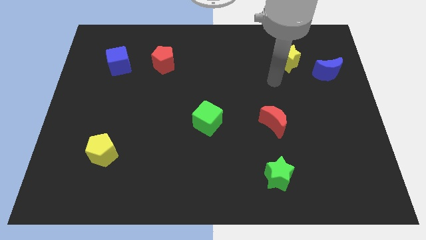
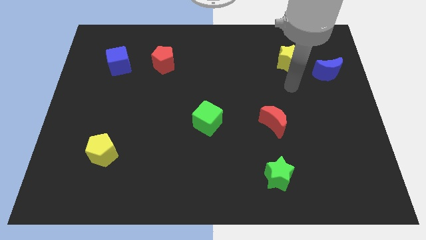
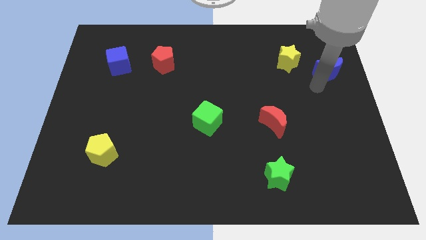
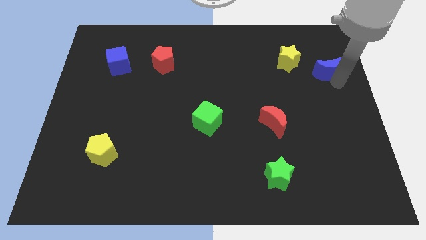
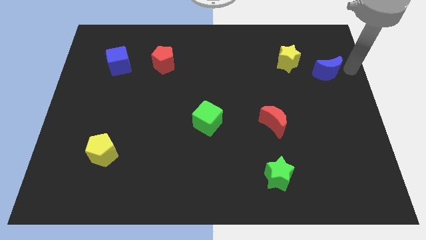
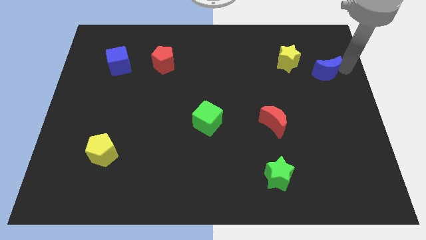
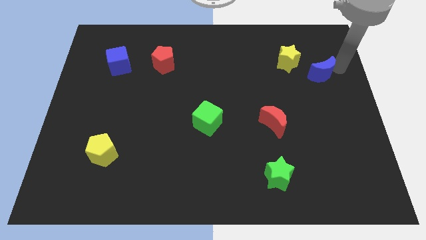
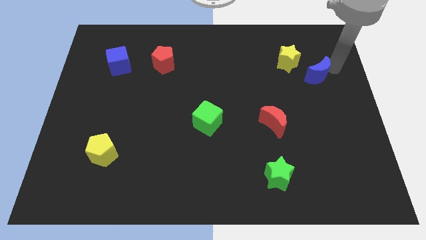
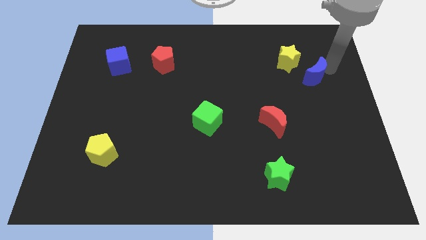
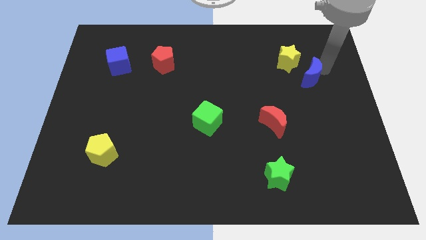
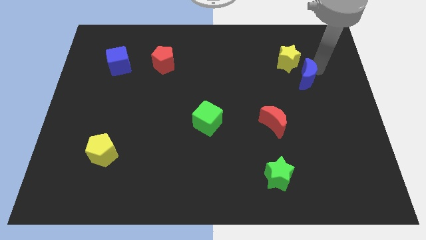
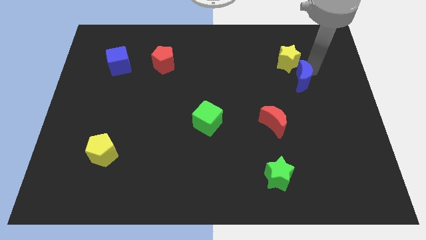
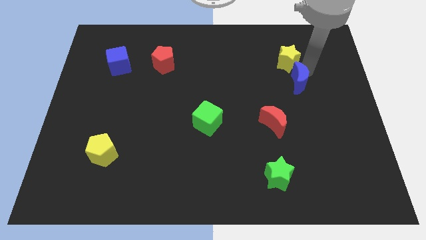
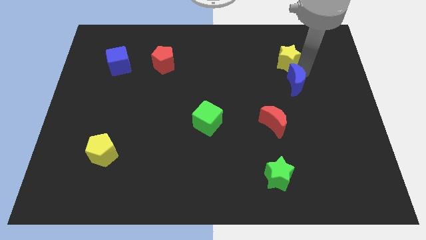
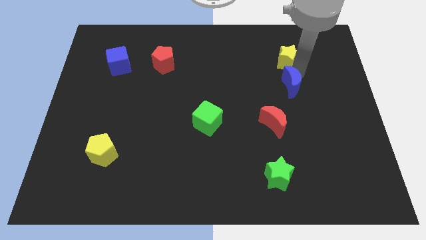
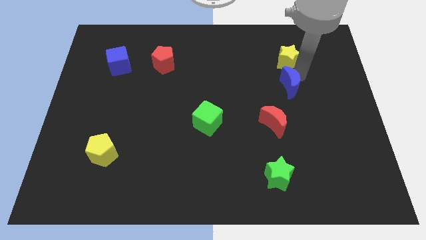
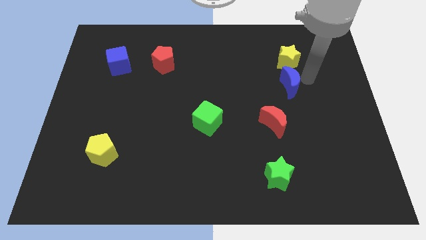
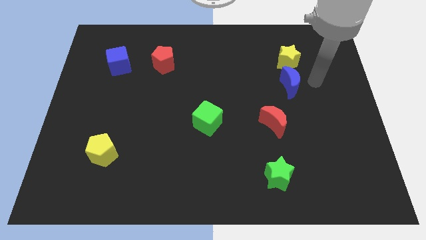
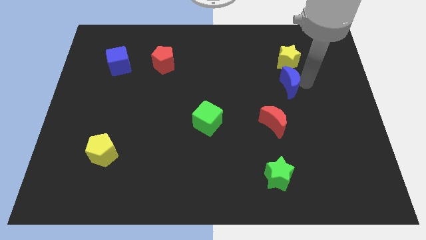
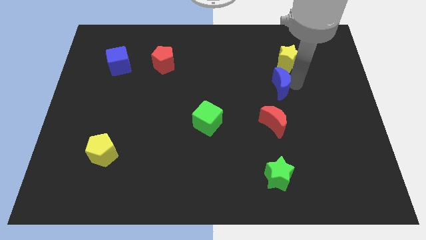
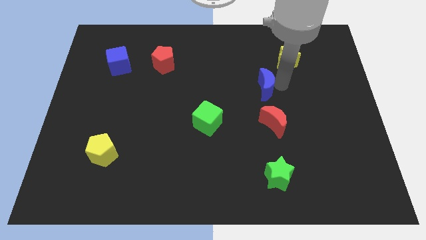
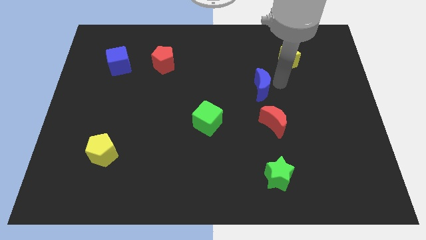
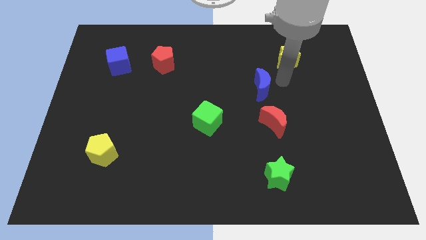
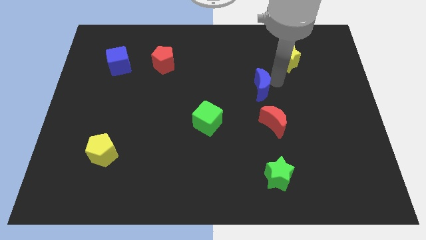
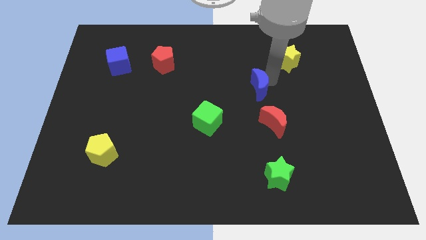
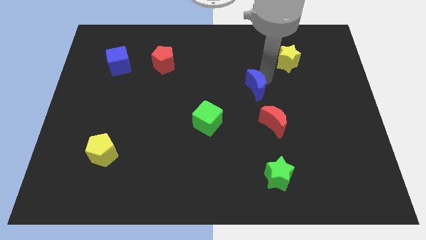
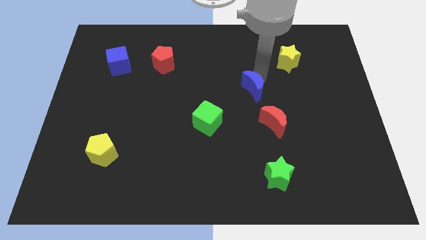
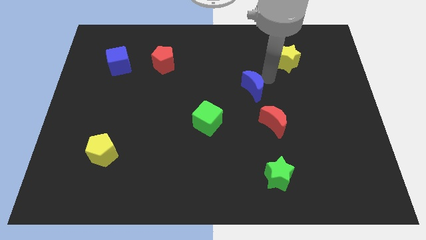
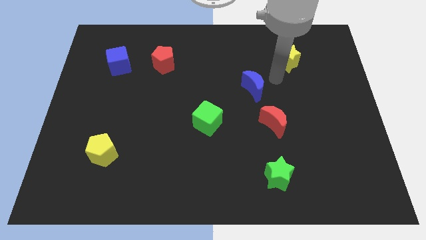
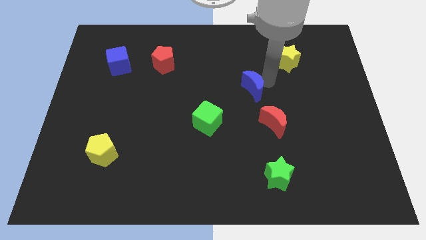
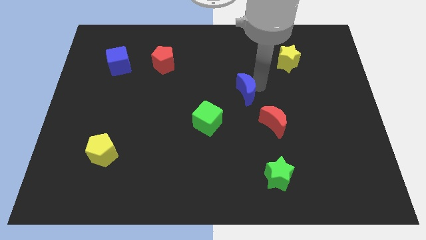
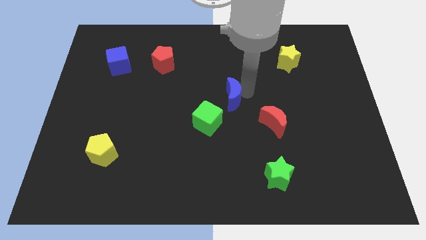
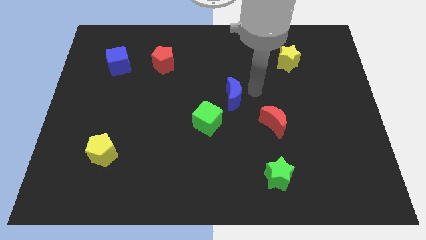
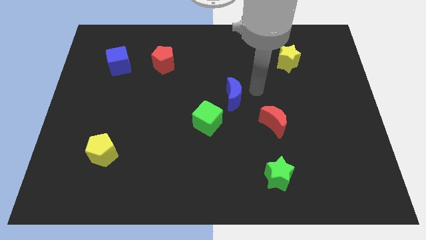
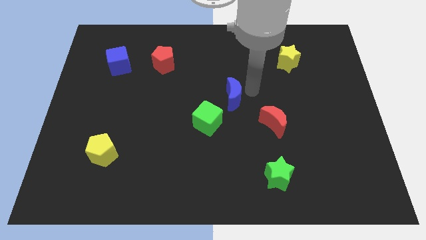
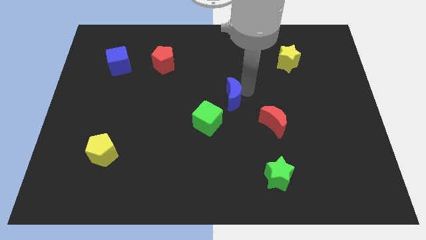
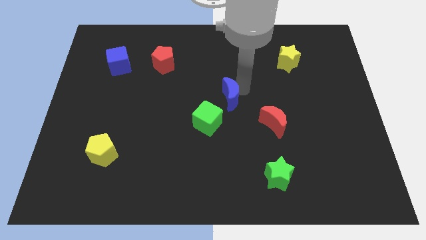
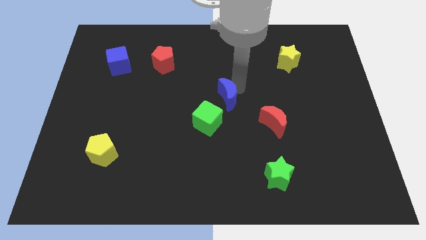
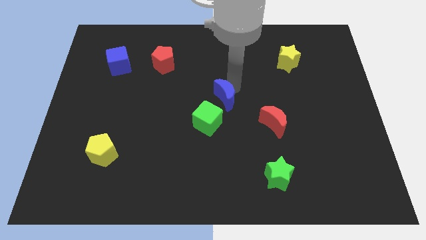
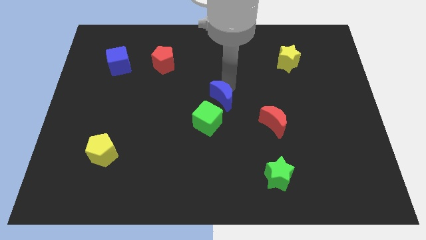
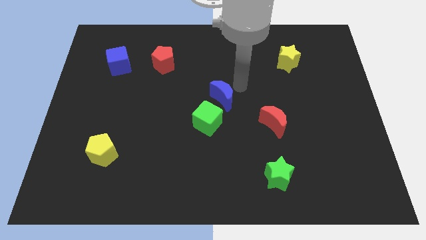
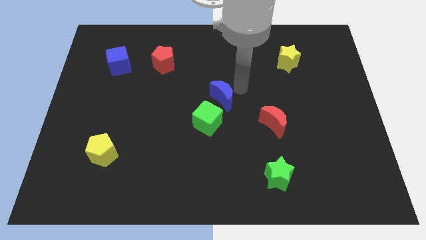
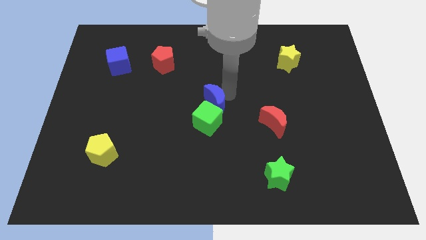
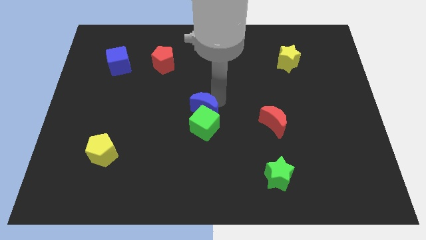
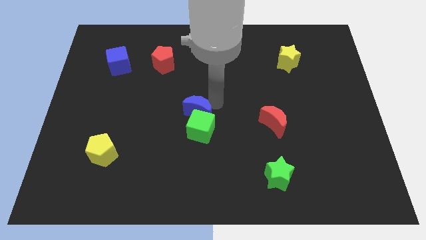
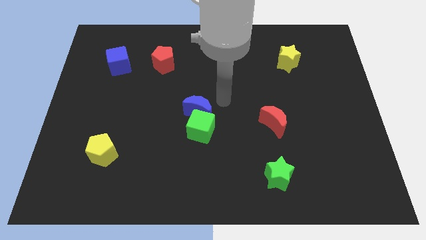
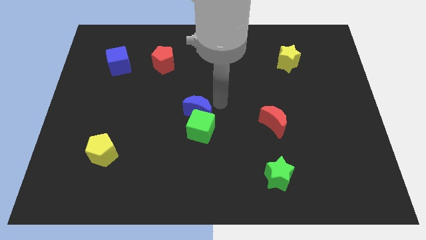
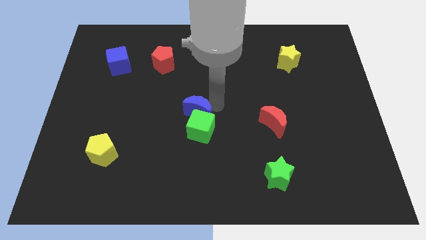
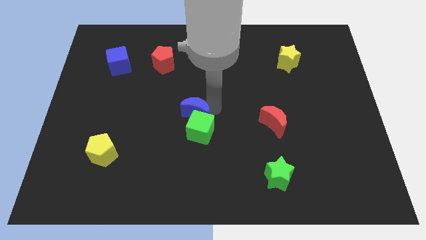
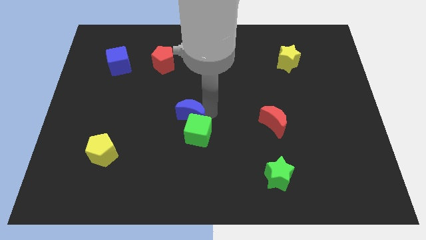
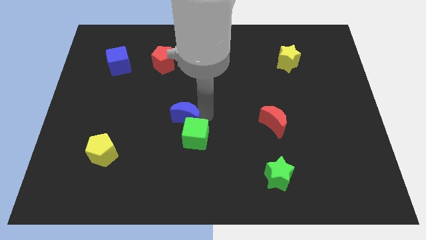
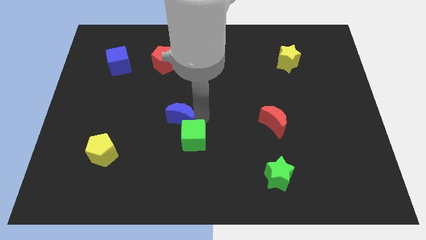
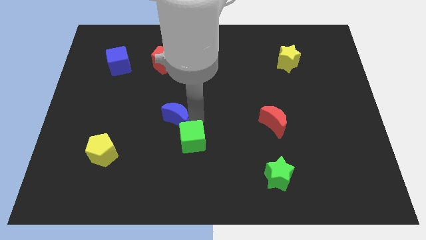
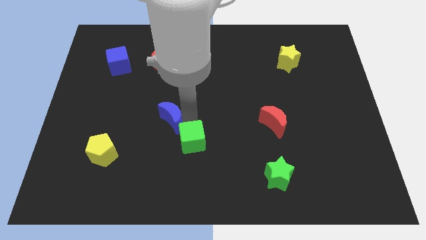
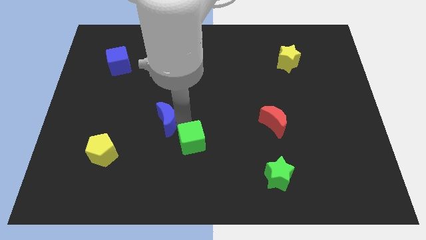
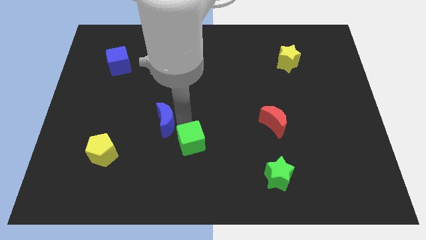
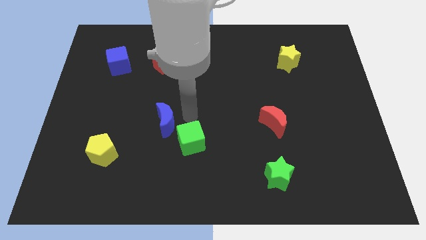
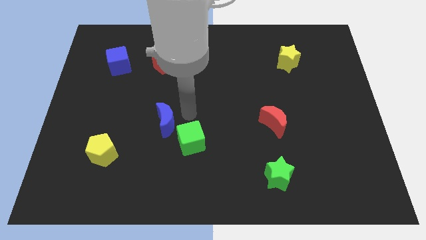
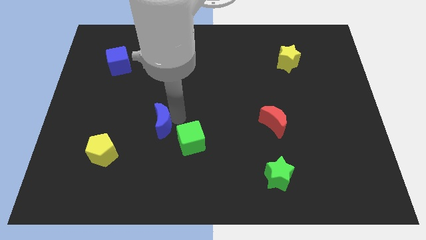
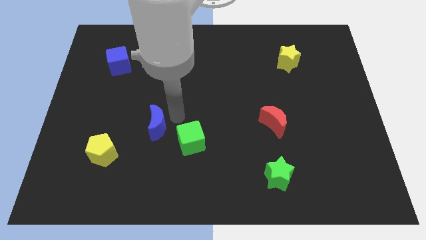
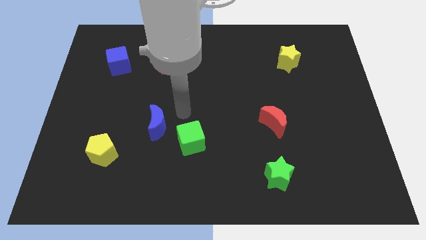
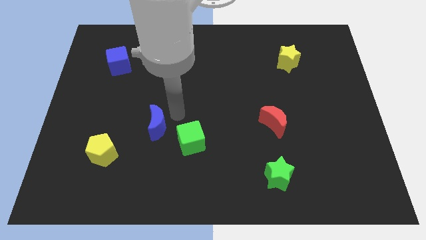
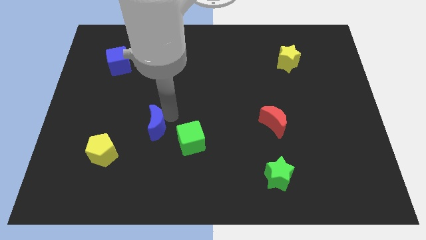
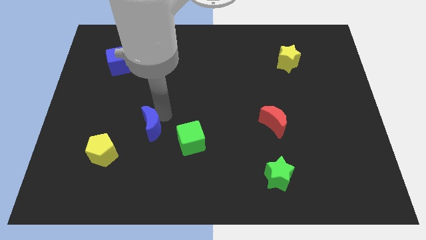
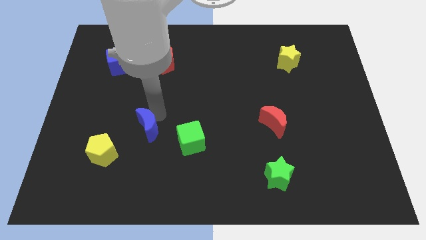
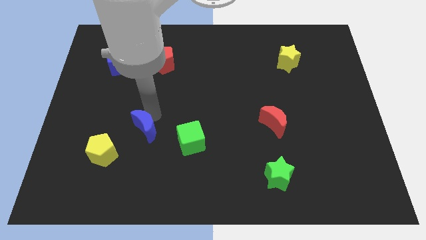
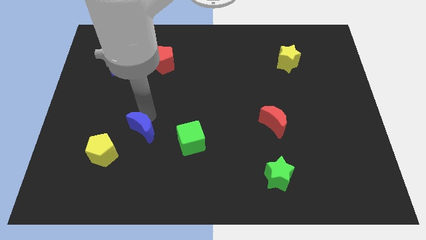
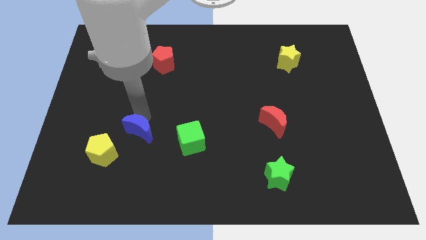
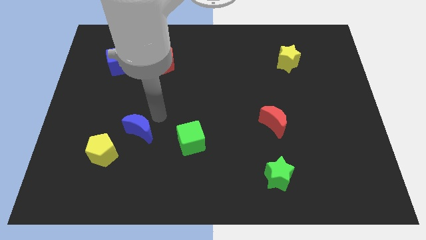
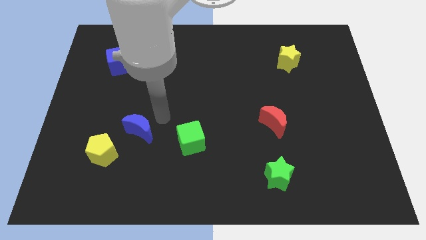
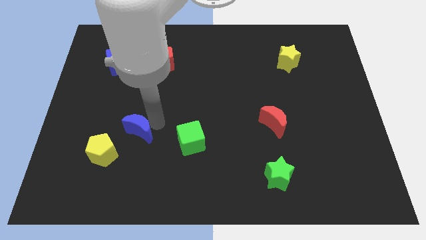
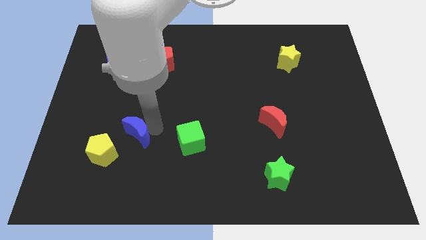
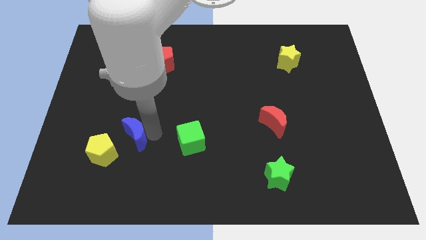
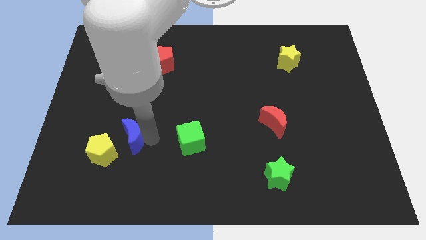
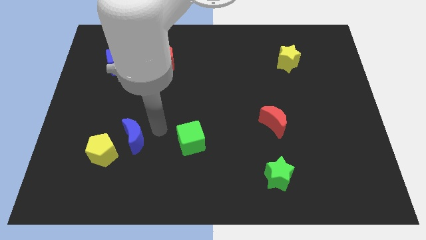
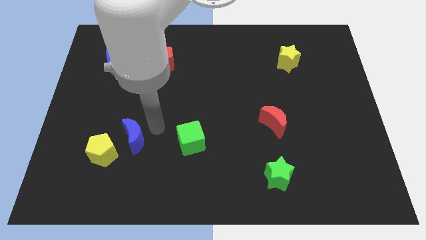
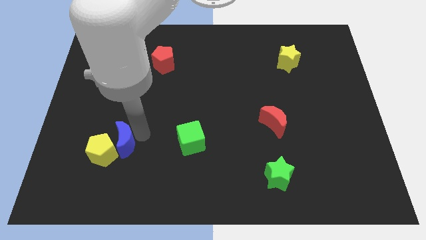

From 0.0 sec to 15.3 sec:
move the blue moon close to the yellow pentagon
